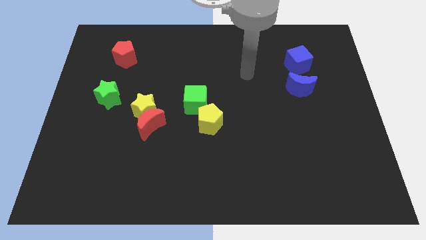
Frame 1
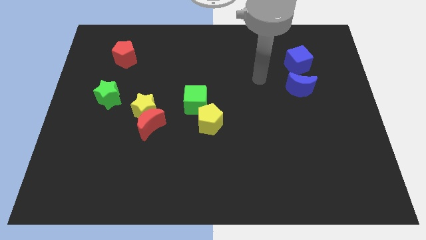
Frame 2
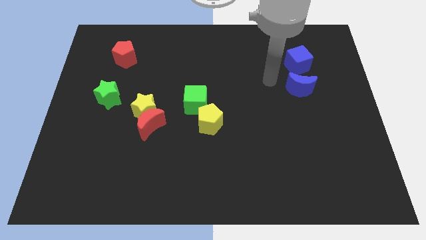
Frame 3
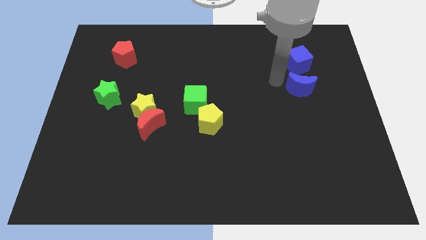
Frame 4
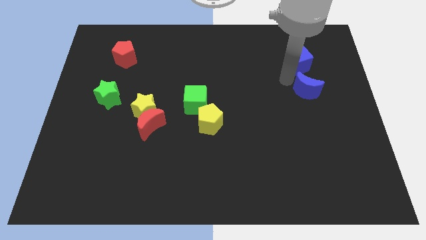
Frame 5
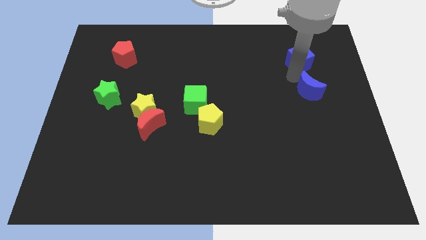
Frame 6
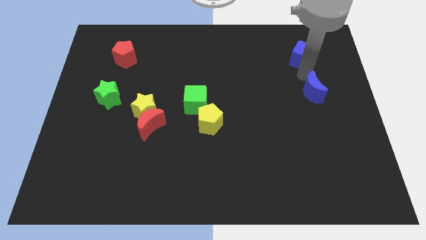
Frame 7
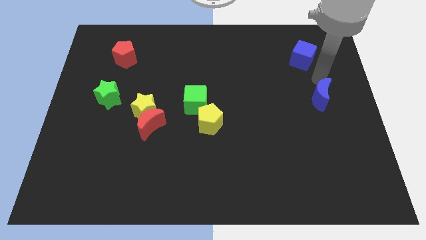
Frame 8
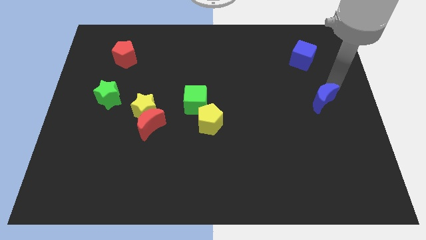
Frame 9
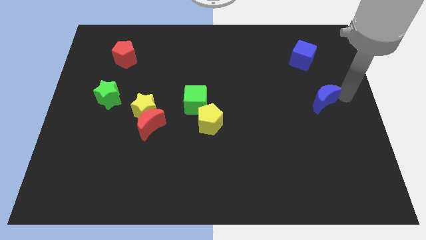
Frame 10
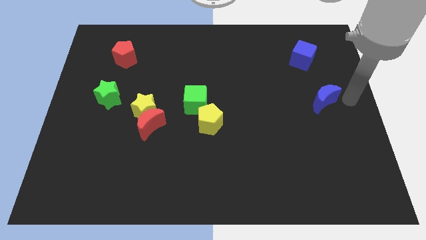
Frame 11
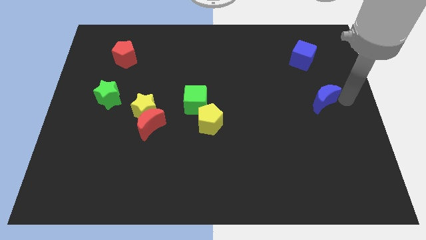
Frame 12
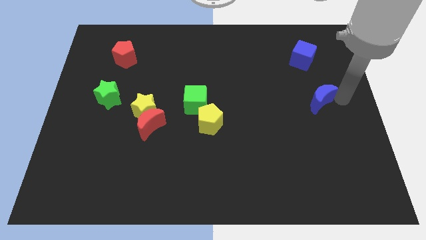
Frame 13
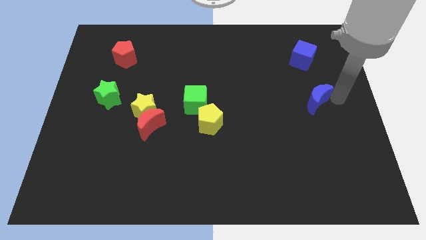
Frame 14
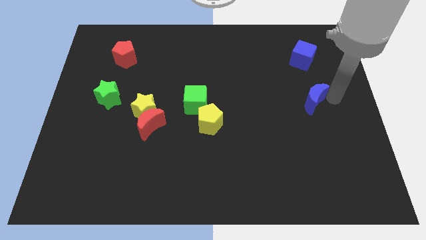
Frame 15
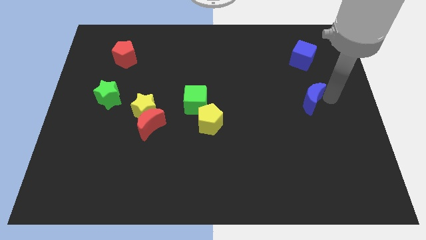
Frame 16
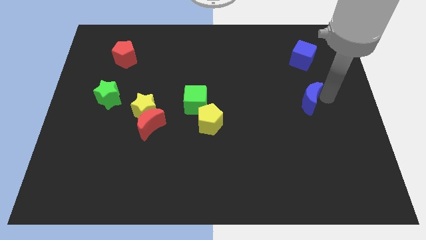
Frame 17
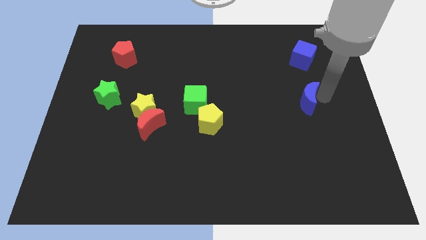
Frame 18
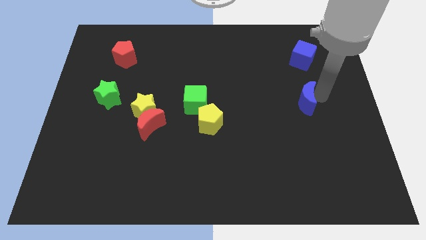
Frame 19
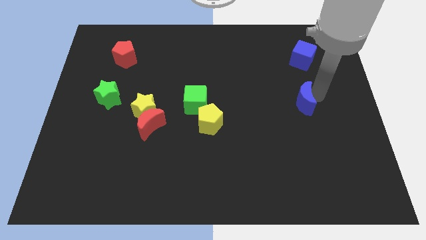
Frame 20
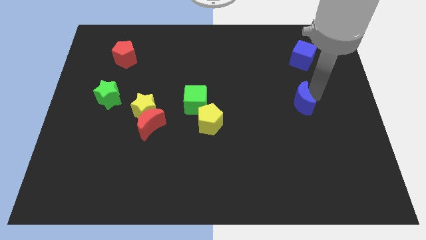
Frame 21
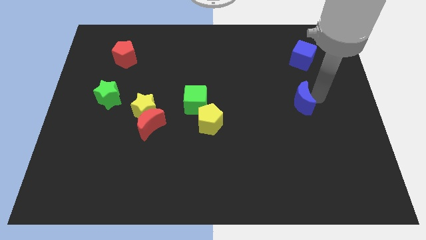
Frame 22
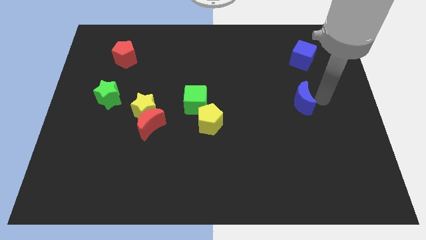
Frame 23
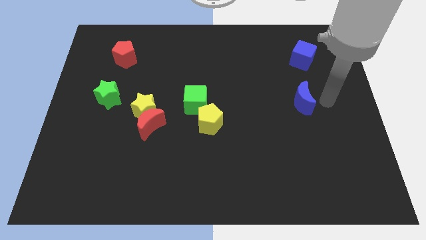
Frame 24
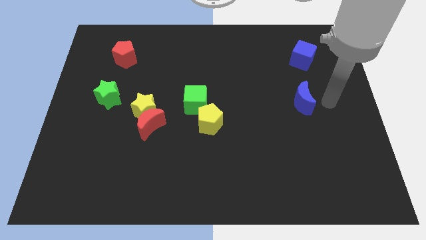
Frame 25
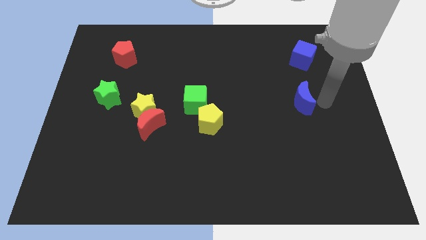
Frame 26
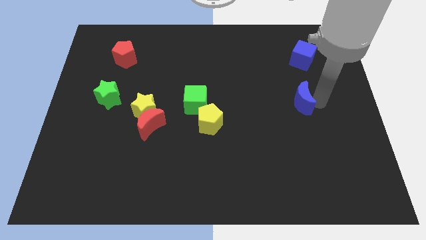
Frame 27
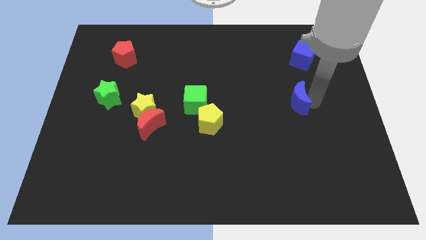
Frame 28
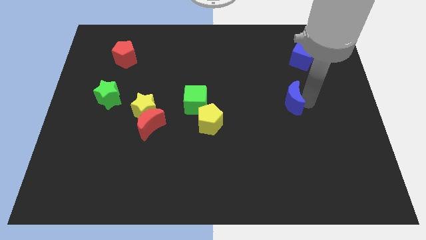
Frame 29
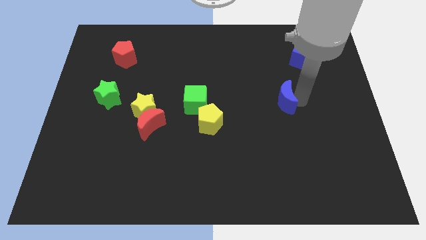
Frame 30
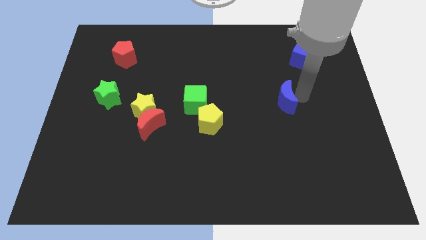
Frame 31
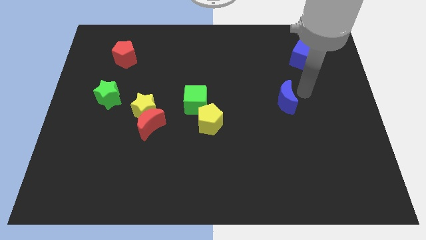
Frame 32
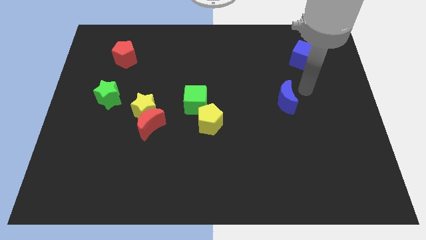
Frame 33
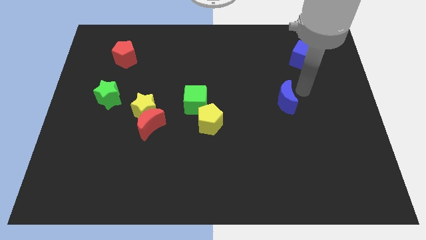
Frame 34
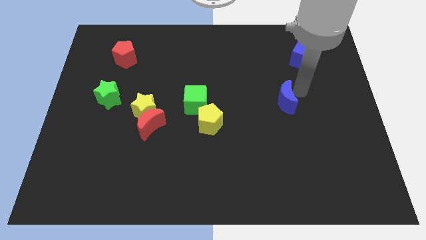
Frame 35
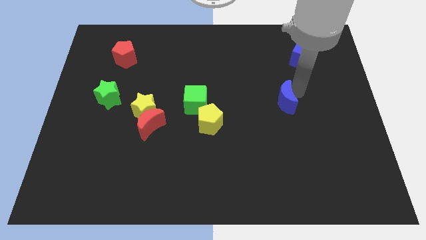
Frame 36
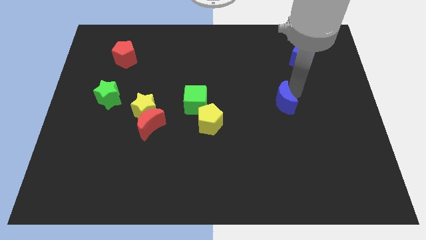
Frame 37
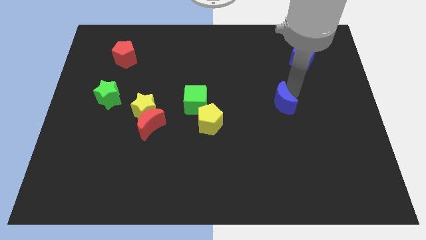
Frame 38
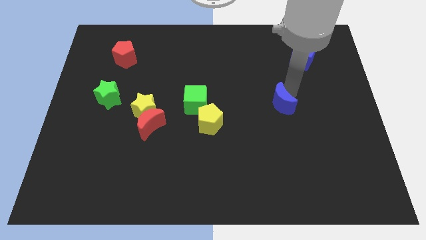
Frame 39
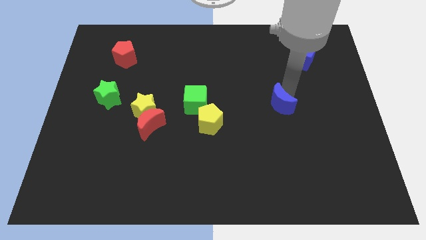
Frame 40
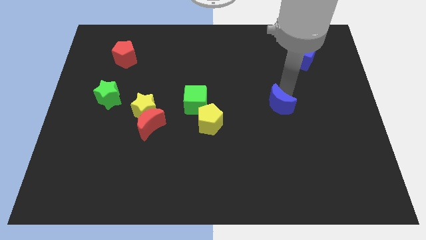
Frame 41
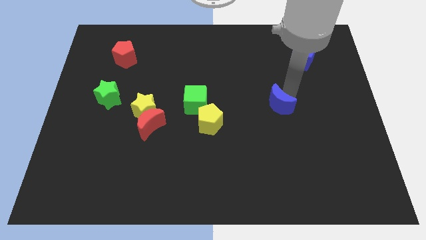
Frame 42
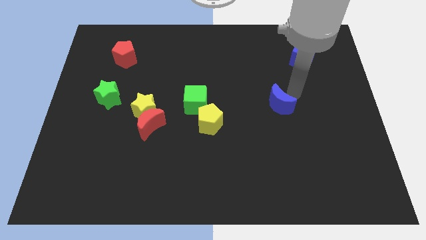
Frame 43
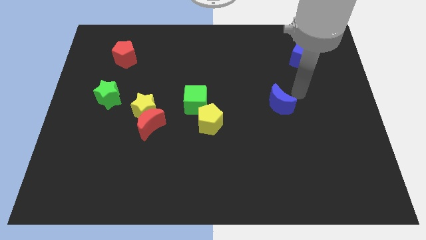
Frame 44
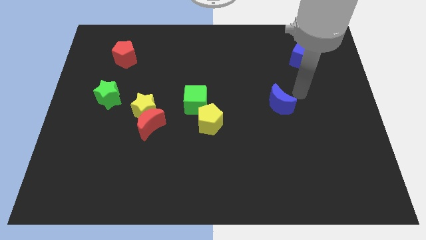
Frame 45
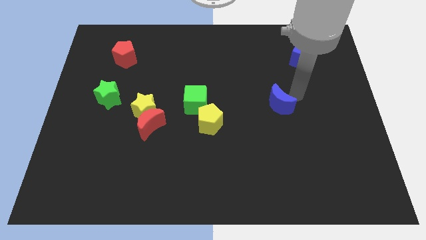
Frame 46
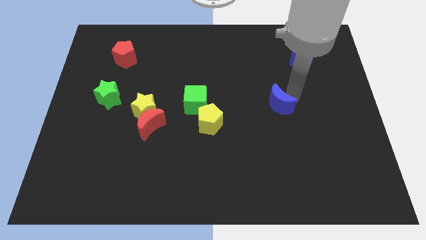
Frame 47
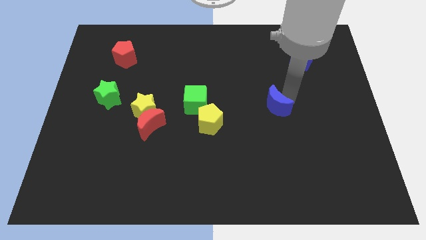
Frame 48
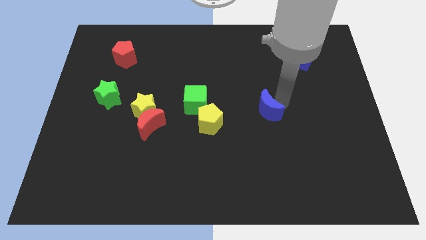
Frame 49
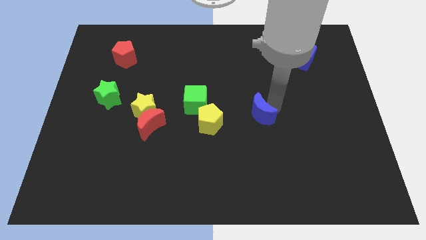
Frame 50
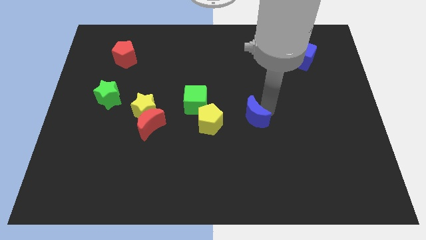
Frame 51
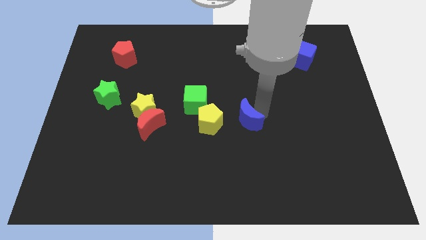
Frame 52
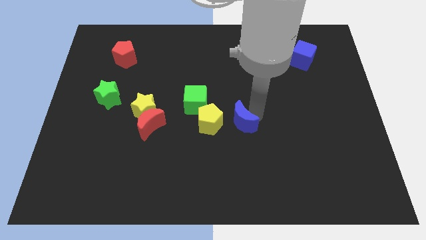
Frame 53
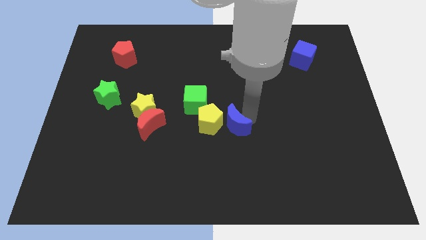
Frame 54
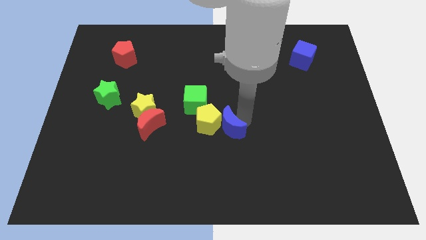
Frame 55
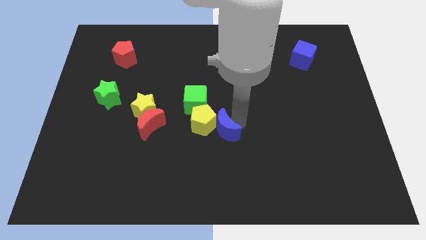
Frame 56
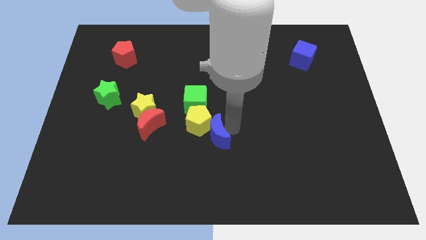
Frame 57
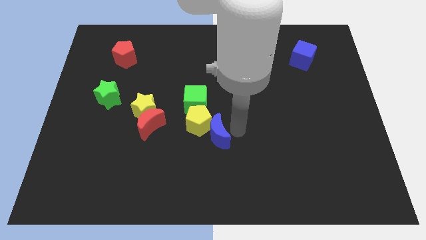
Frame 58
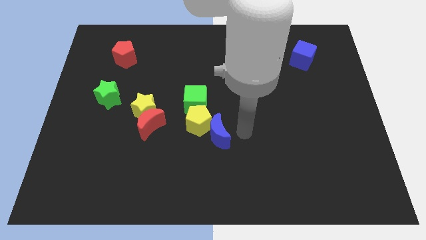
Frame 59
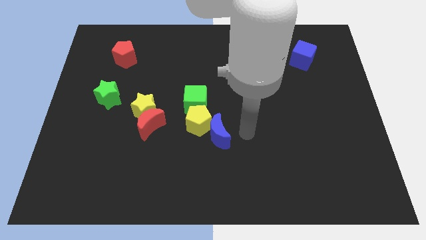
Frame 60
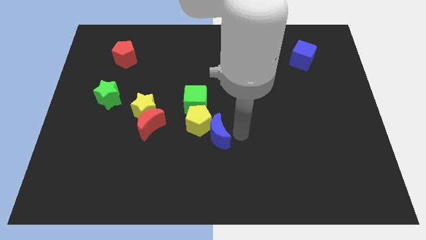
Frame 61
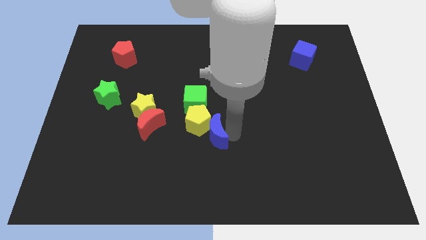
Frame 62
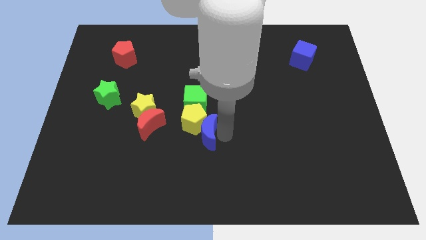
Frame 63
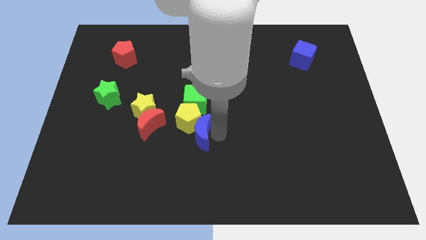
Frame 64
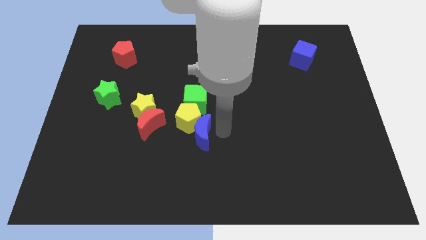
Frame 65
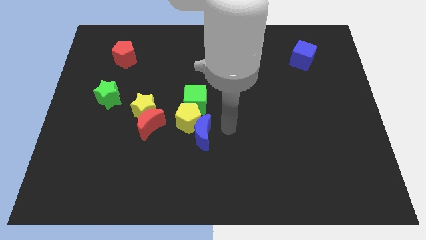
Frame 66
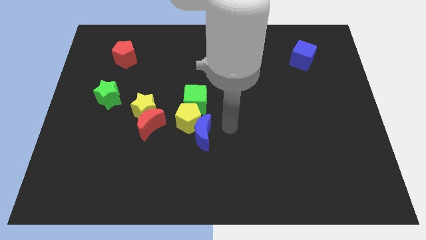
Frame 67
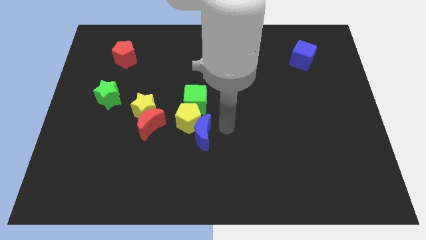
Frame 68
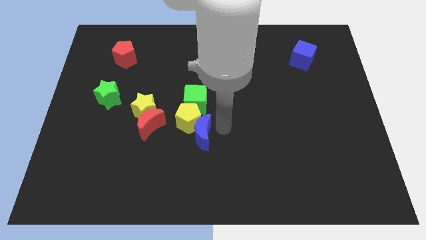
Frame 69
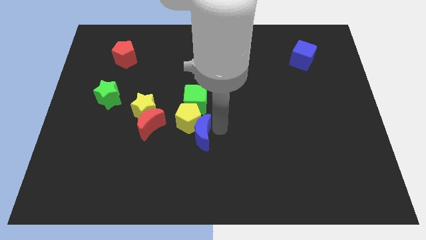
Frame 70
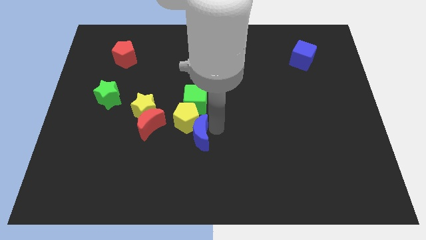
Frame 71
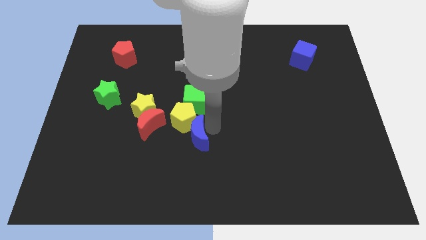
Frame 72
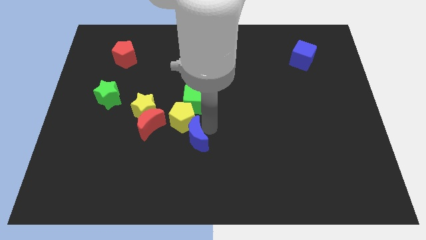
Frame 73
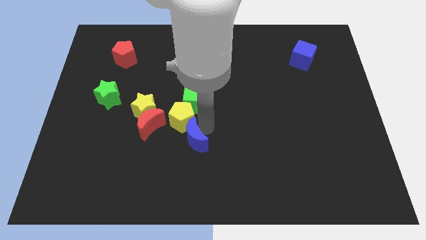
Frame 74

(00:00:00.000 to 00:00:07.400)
slide the blue moon to the bottom right side of the red moon
